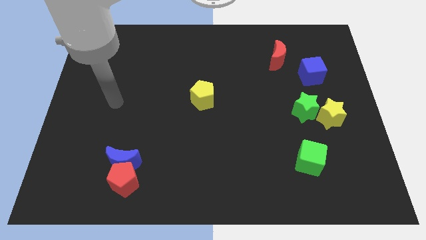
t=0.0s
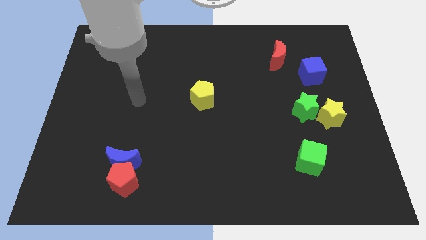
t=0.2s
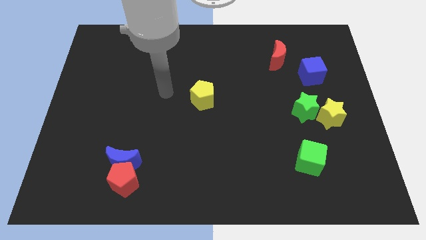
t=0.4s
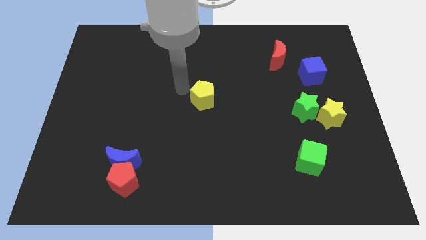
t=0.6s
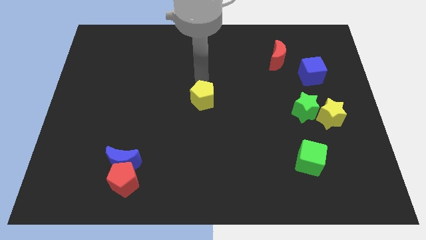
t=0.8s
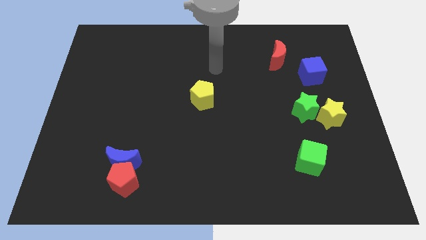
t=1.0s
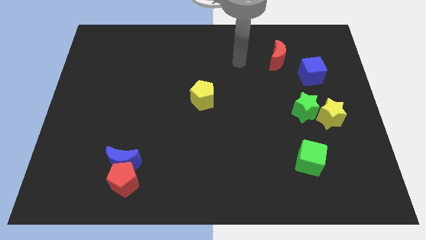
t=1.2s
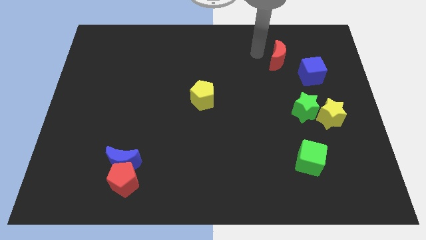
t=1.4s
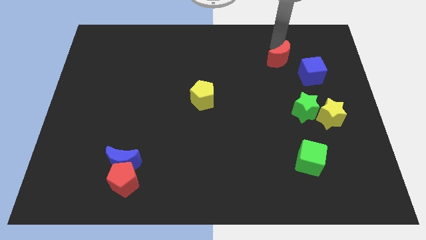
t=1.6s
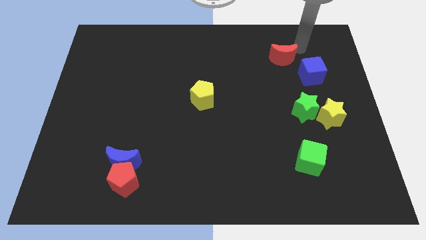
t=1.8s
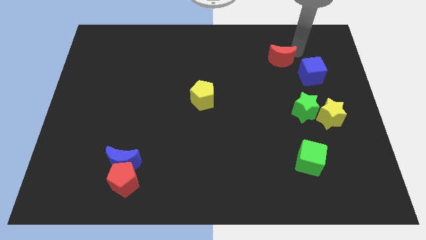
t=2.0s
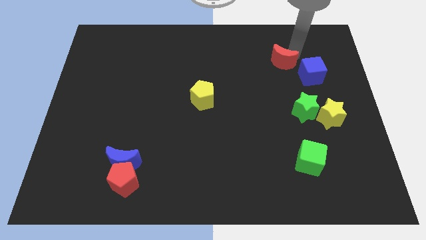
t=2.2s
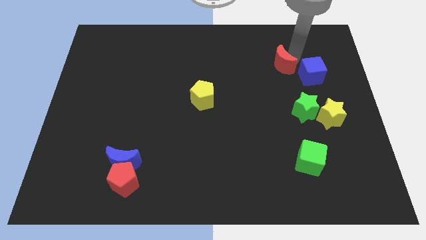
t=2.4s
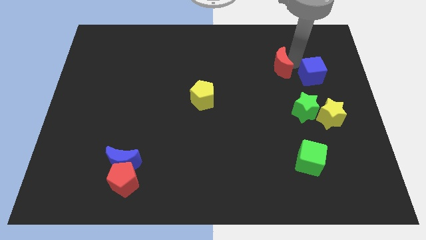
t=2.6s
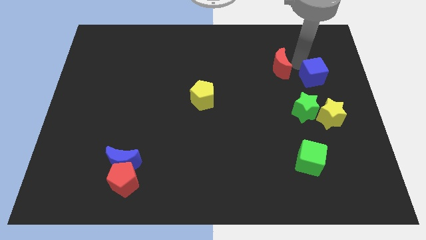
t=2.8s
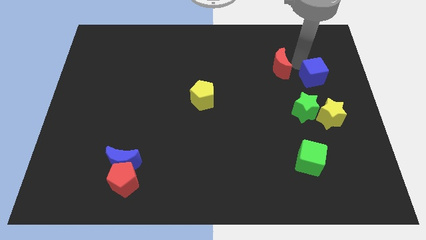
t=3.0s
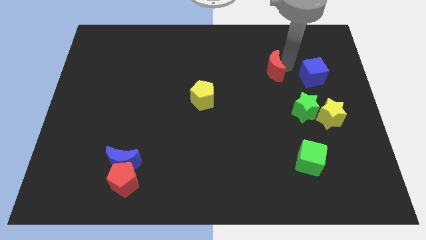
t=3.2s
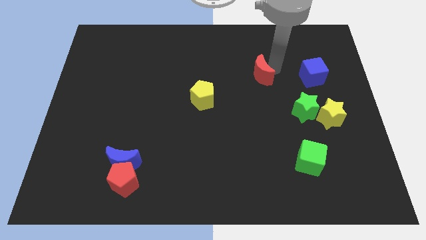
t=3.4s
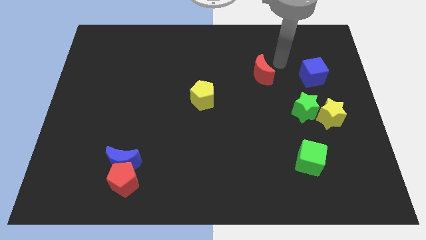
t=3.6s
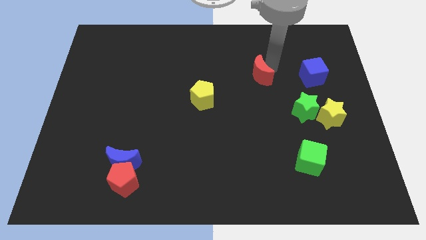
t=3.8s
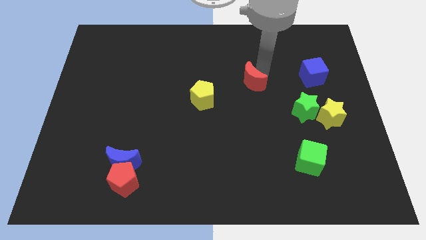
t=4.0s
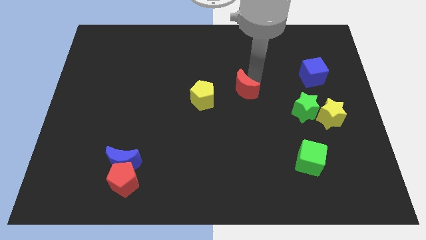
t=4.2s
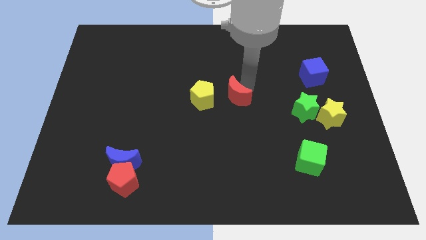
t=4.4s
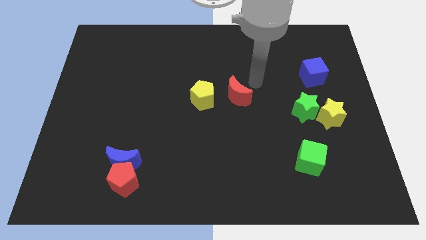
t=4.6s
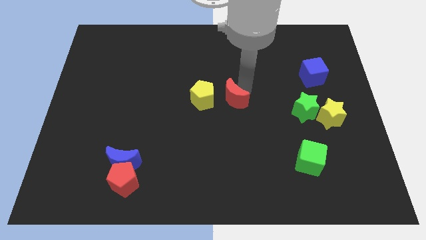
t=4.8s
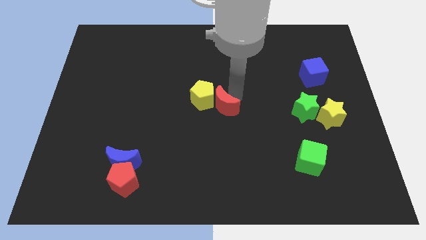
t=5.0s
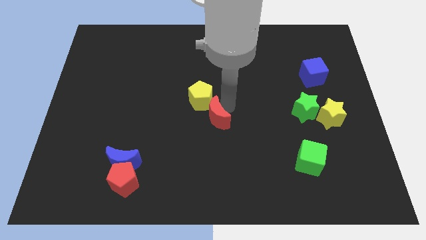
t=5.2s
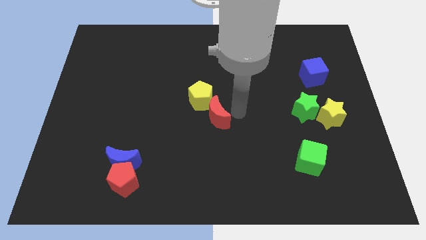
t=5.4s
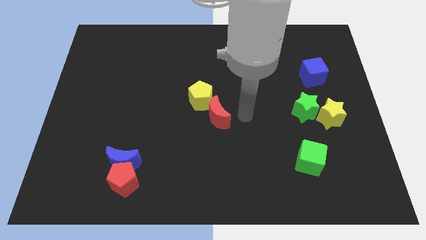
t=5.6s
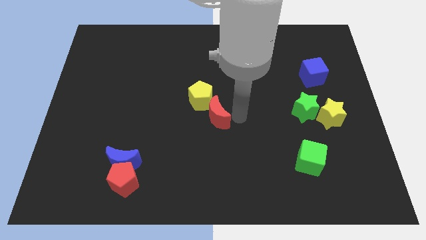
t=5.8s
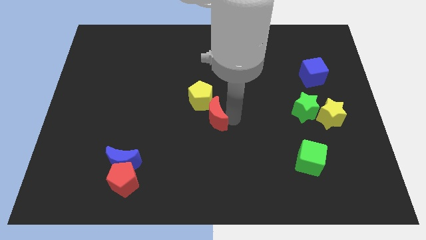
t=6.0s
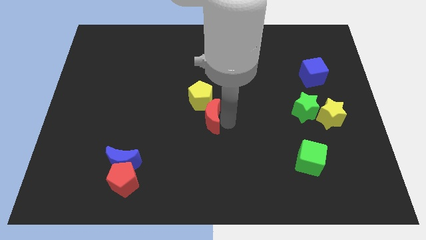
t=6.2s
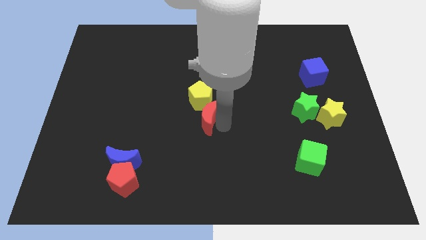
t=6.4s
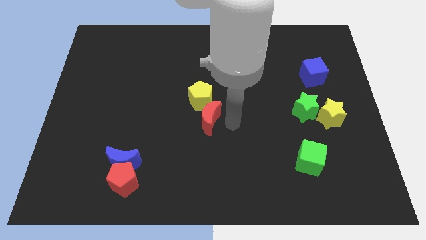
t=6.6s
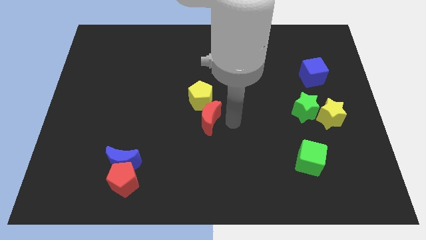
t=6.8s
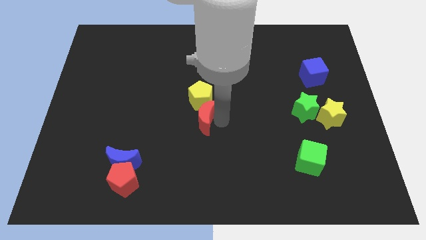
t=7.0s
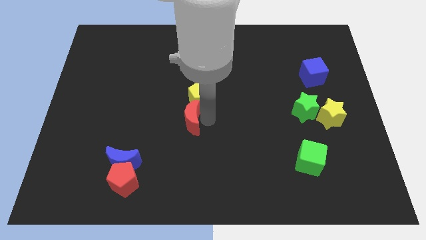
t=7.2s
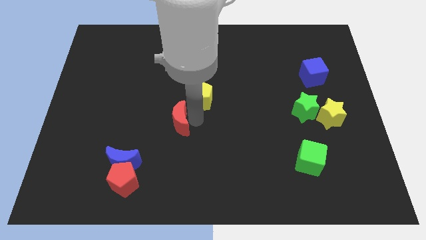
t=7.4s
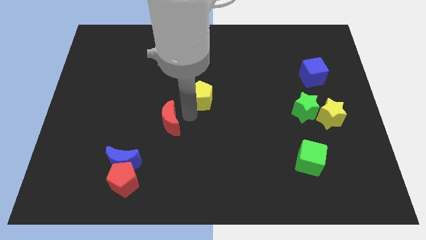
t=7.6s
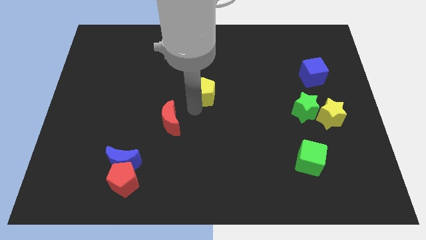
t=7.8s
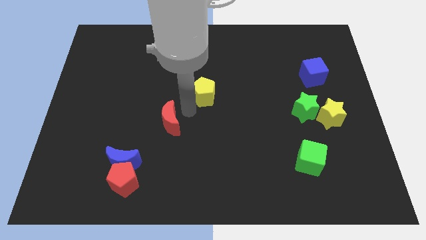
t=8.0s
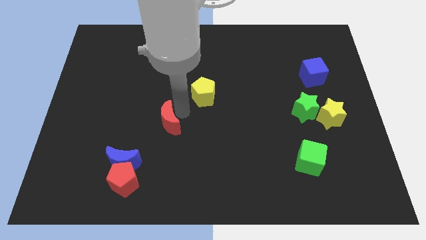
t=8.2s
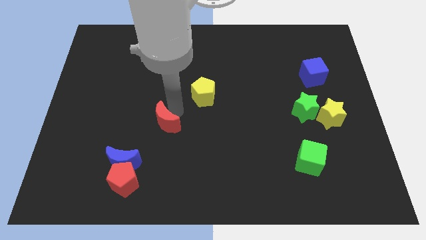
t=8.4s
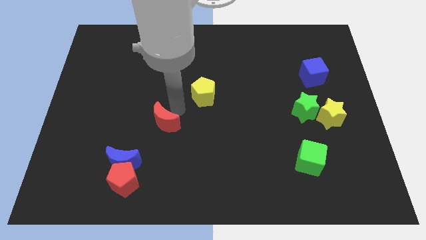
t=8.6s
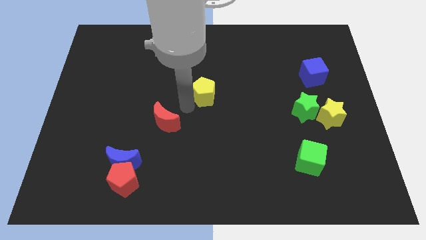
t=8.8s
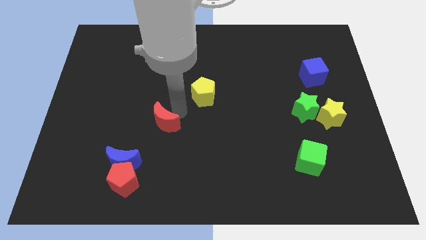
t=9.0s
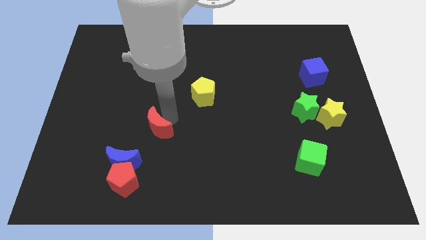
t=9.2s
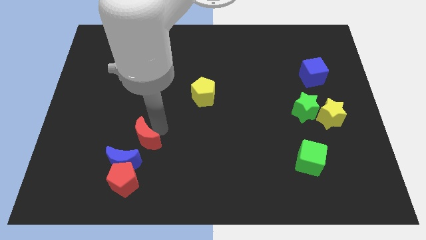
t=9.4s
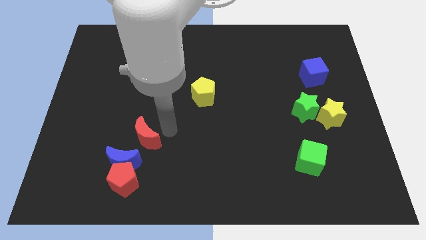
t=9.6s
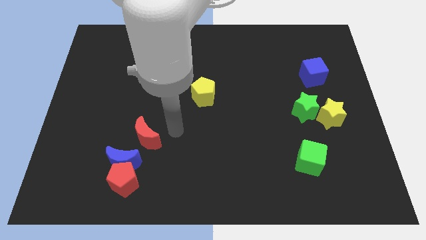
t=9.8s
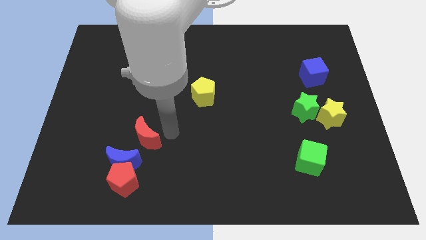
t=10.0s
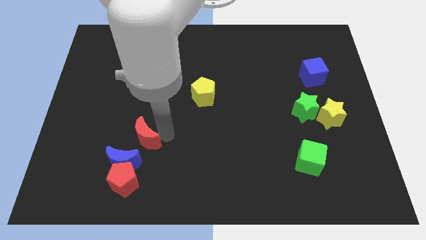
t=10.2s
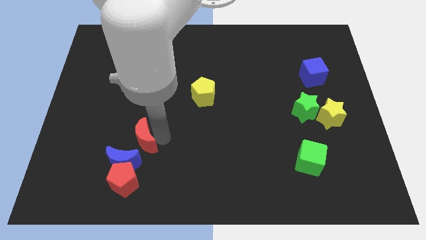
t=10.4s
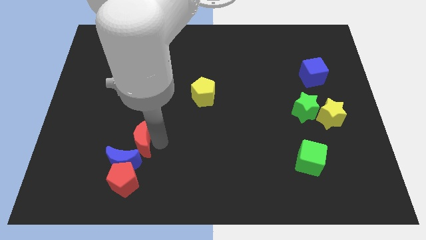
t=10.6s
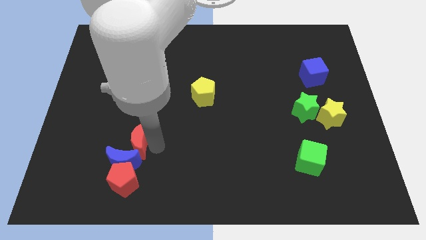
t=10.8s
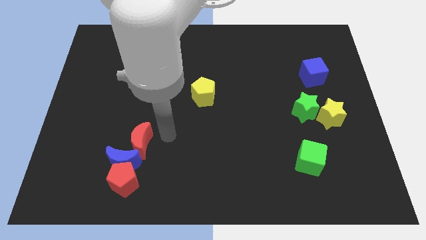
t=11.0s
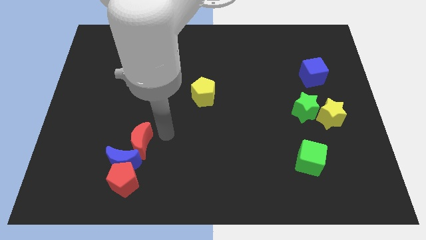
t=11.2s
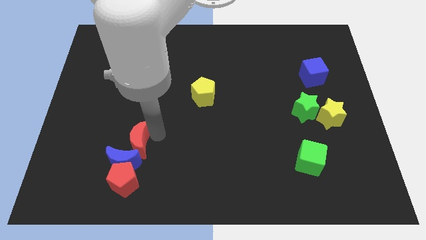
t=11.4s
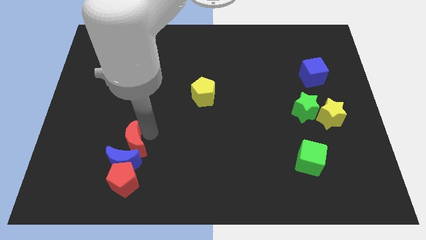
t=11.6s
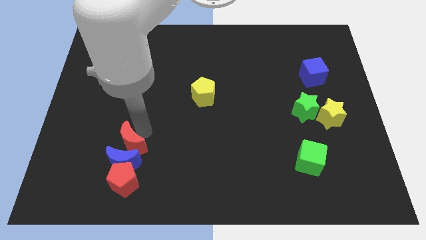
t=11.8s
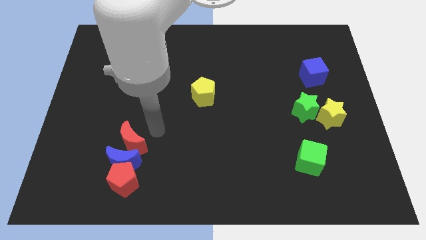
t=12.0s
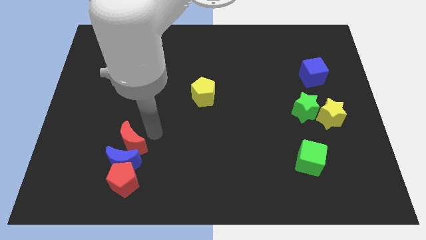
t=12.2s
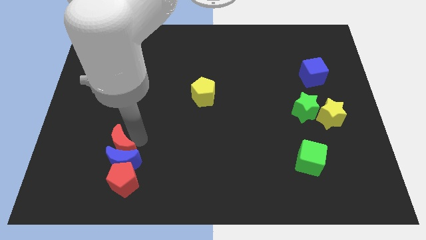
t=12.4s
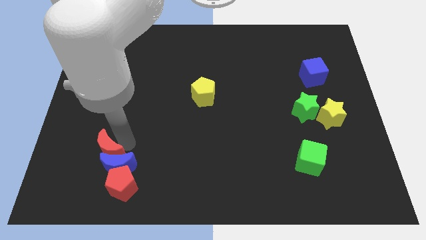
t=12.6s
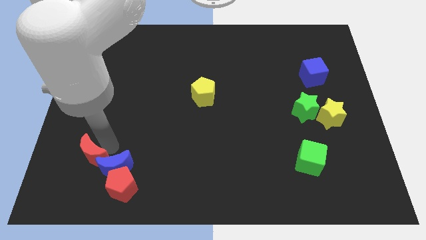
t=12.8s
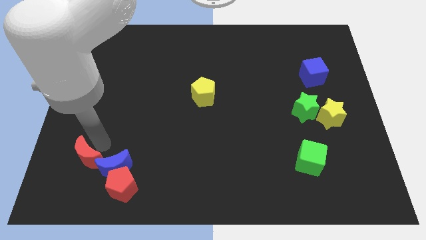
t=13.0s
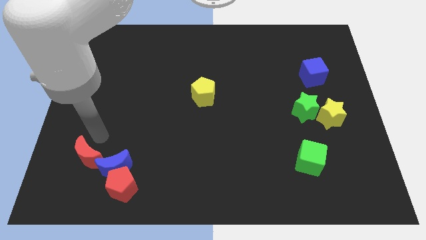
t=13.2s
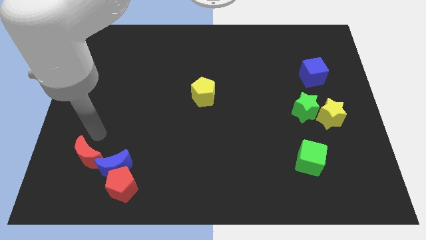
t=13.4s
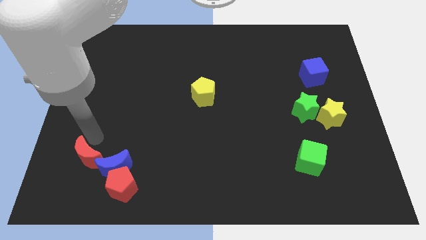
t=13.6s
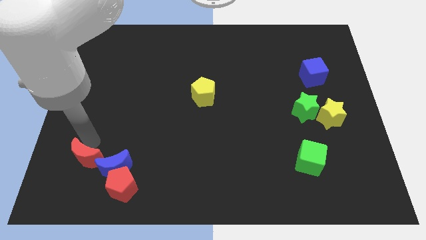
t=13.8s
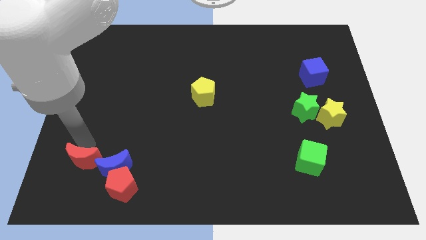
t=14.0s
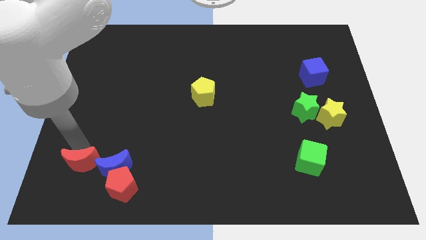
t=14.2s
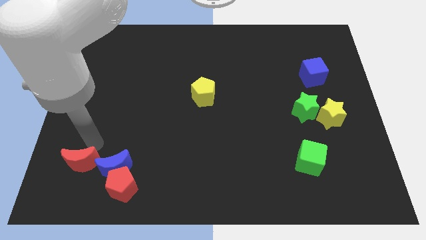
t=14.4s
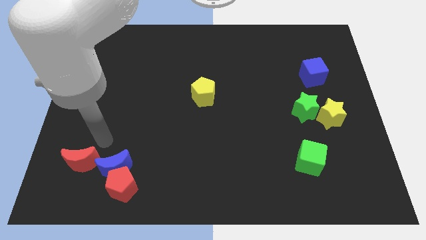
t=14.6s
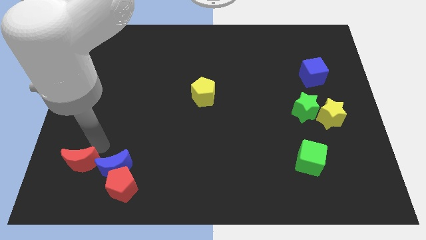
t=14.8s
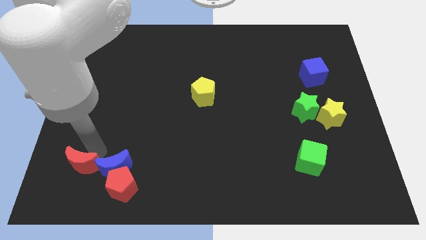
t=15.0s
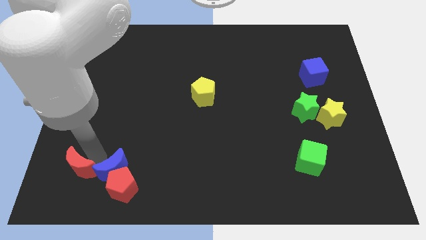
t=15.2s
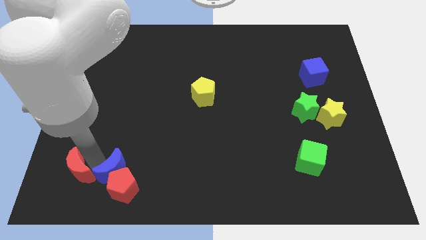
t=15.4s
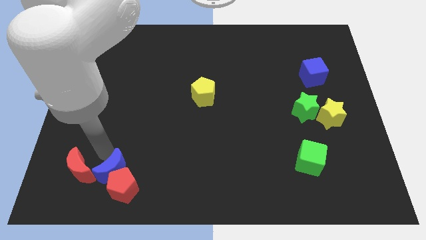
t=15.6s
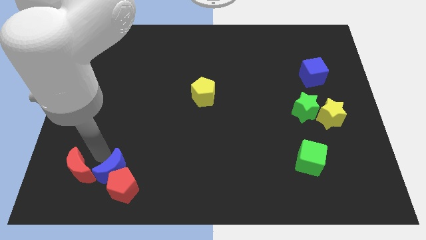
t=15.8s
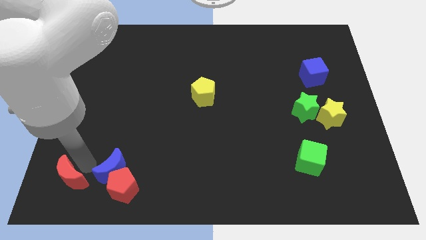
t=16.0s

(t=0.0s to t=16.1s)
slide the red moon to the bottom left of the board
